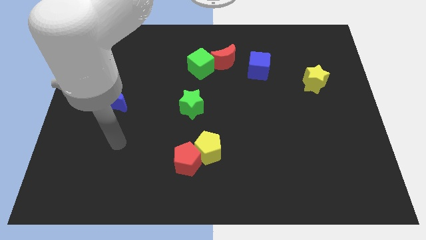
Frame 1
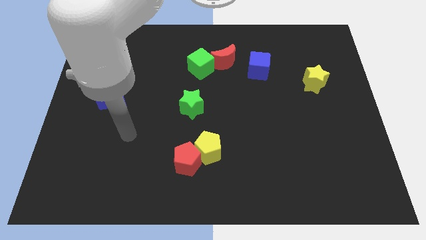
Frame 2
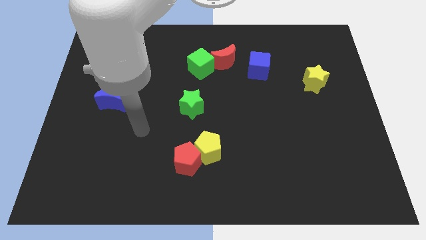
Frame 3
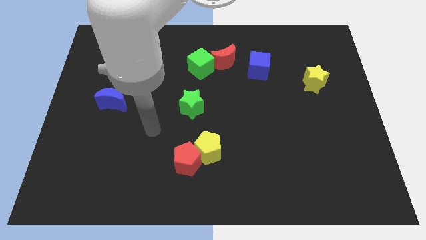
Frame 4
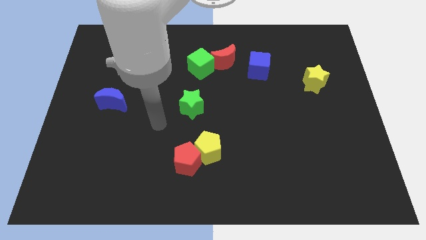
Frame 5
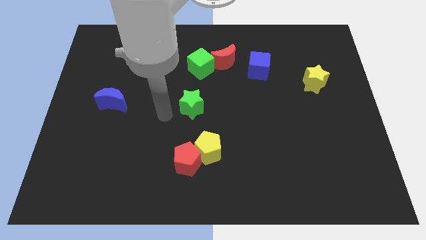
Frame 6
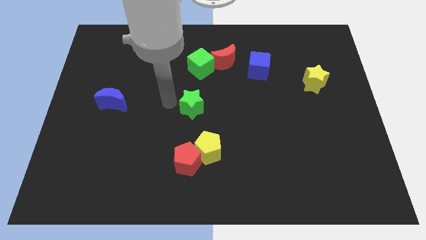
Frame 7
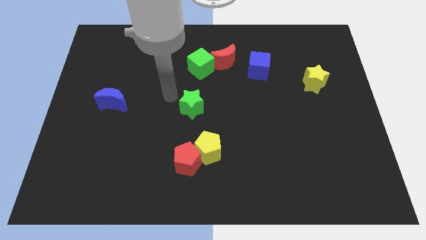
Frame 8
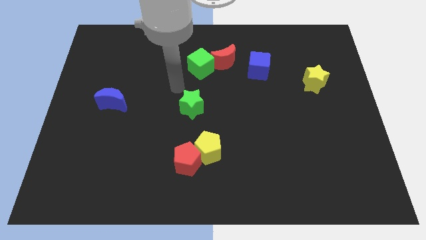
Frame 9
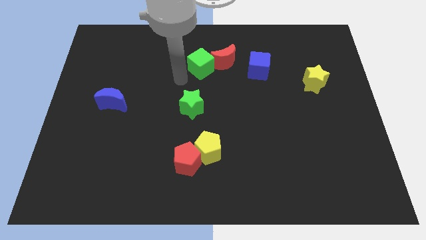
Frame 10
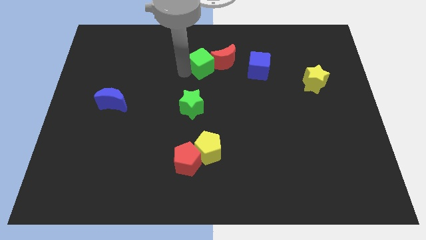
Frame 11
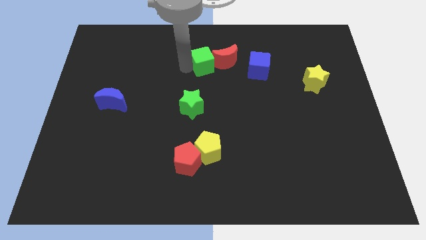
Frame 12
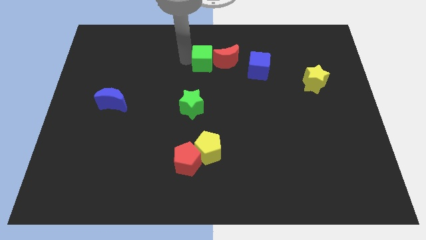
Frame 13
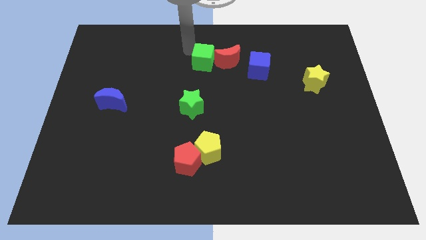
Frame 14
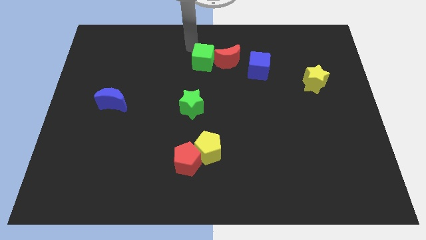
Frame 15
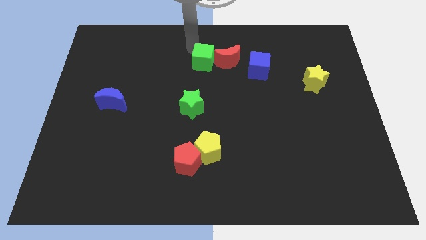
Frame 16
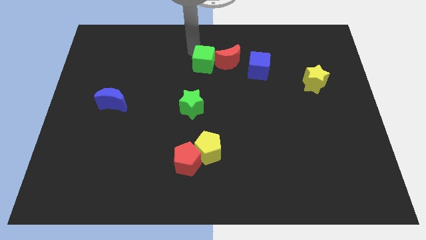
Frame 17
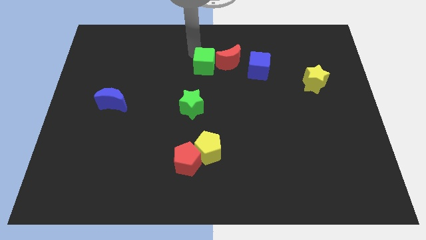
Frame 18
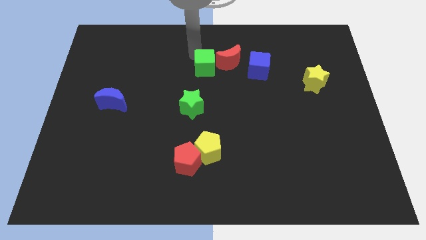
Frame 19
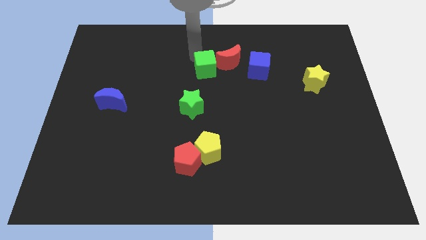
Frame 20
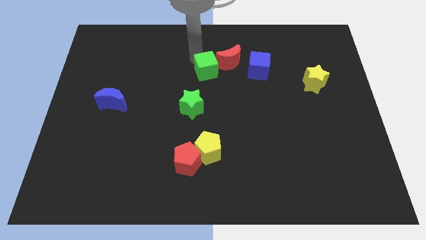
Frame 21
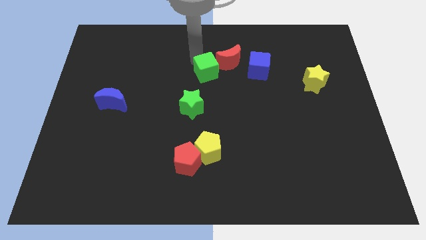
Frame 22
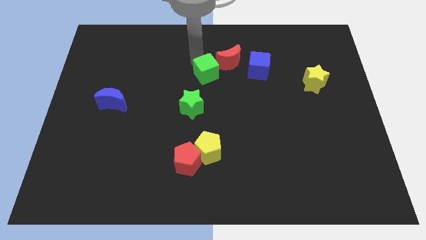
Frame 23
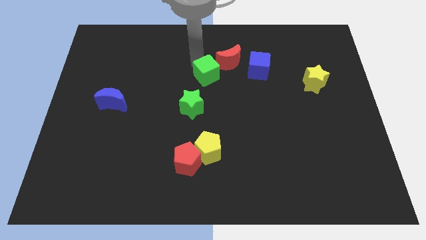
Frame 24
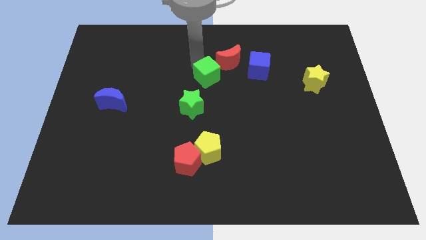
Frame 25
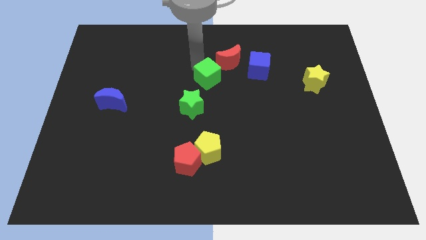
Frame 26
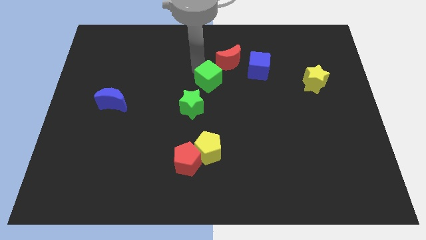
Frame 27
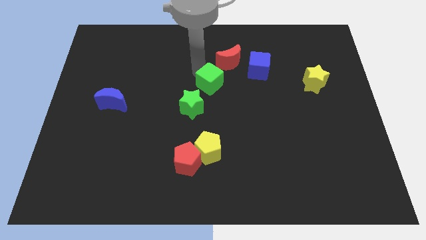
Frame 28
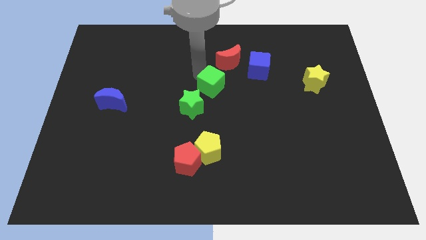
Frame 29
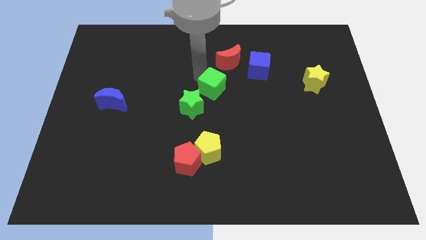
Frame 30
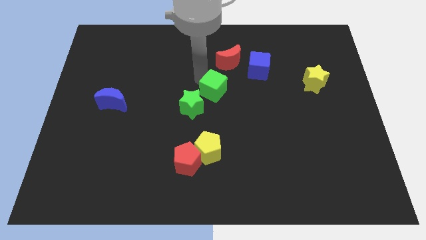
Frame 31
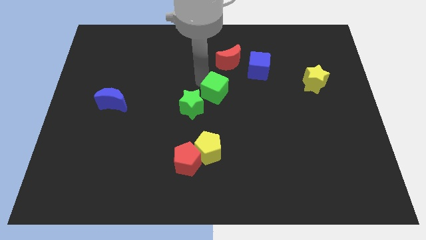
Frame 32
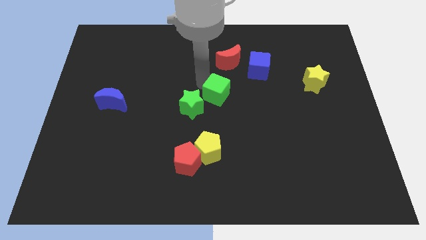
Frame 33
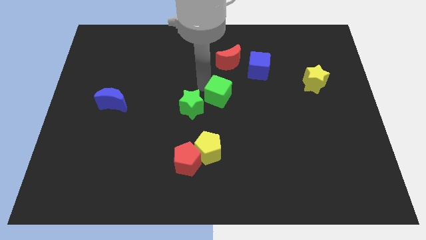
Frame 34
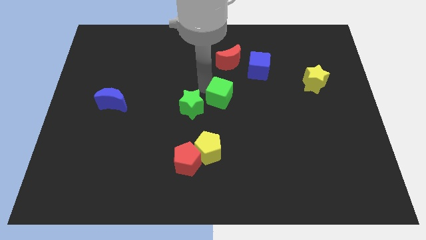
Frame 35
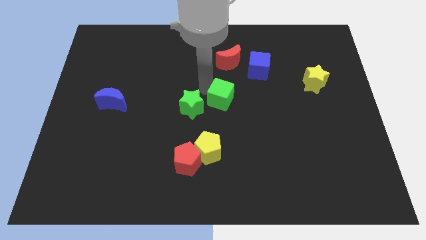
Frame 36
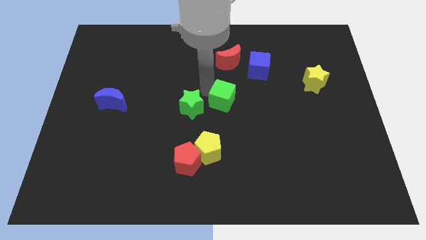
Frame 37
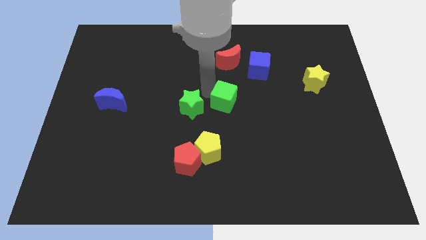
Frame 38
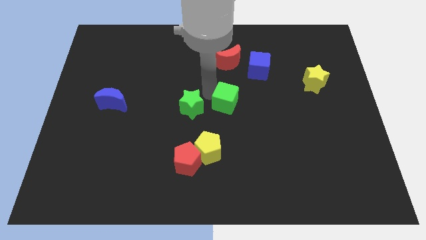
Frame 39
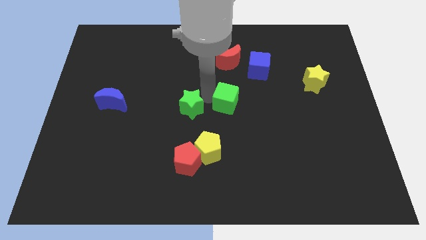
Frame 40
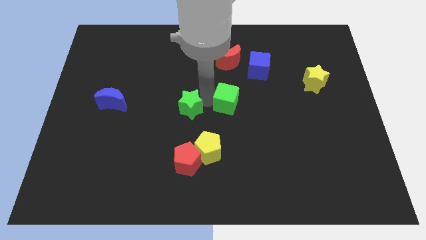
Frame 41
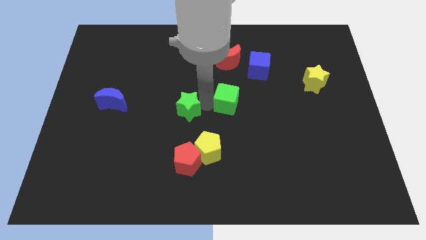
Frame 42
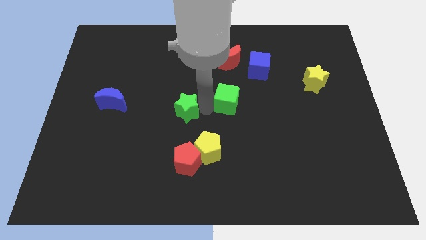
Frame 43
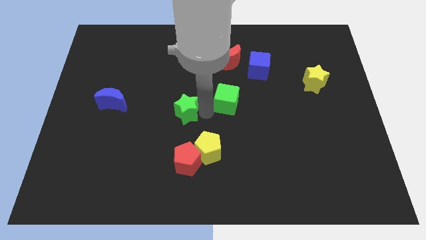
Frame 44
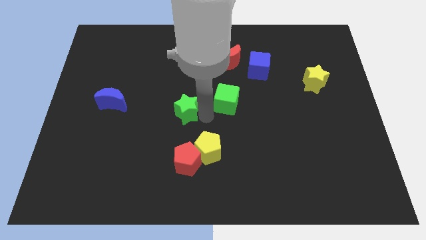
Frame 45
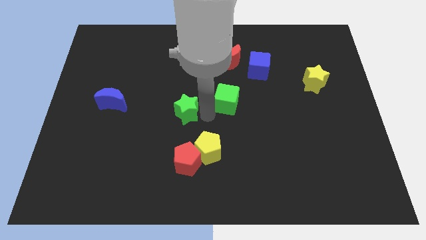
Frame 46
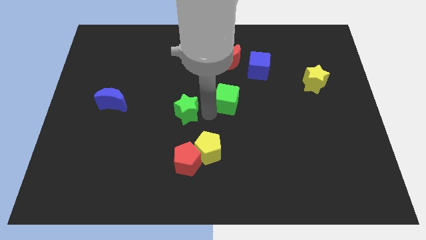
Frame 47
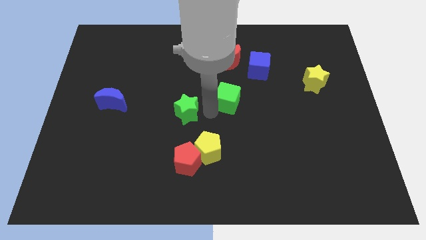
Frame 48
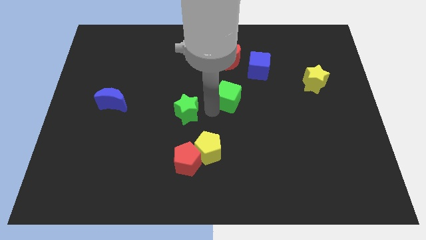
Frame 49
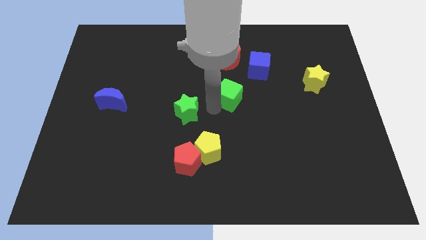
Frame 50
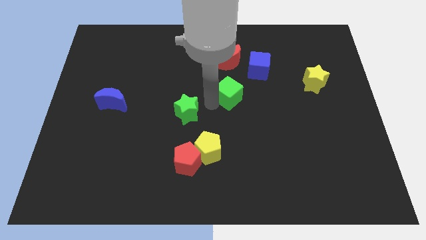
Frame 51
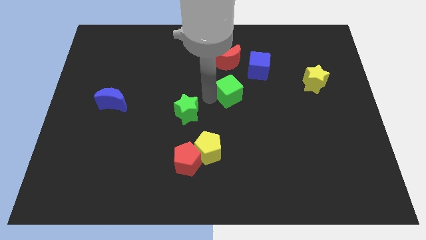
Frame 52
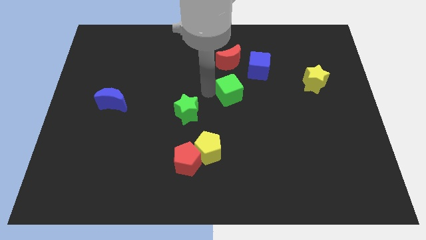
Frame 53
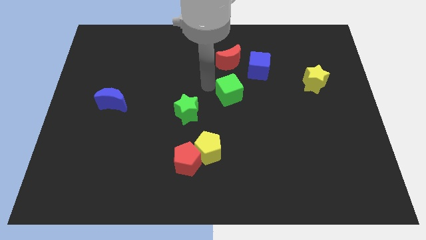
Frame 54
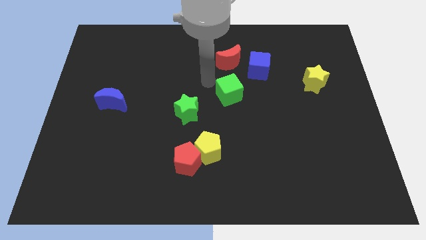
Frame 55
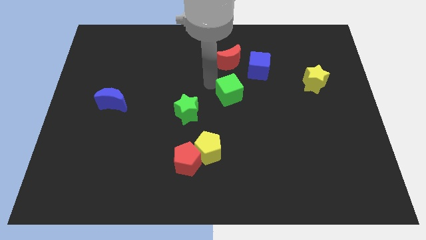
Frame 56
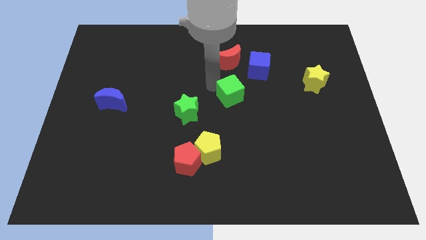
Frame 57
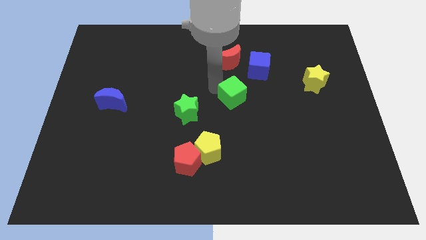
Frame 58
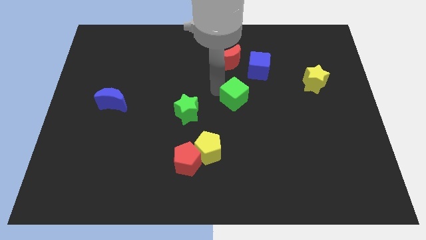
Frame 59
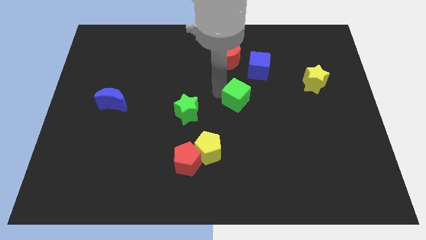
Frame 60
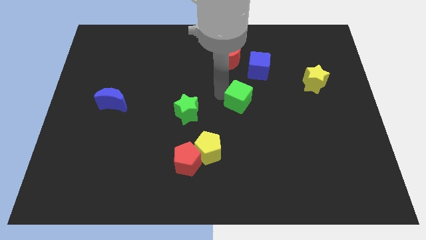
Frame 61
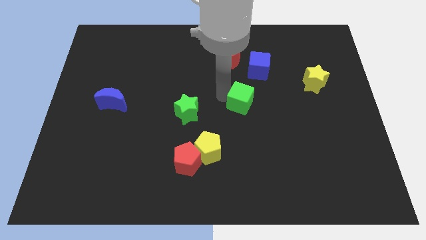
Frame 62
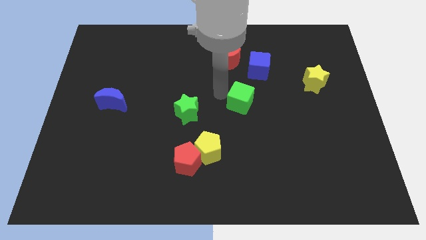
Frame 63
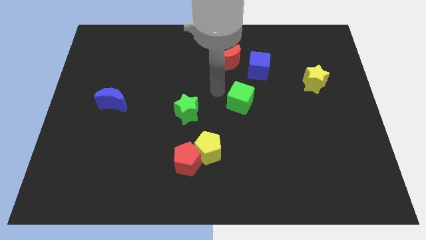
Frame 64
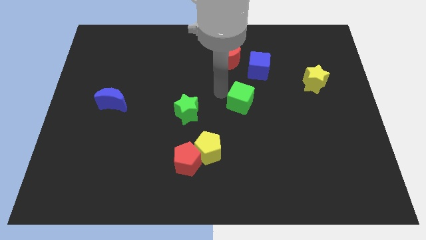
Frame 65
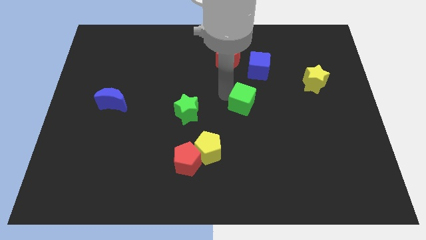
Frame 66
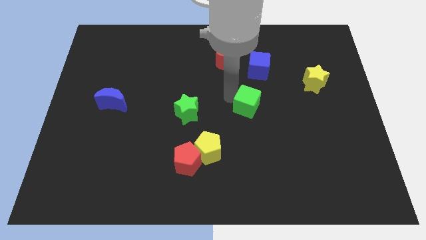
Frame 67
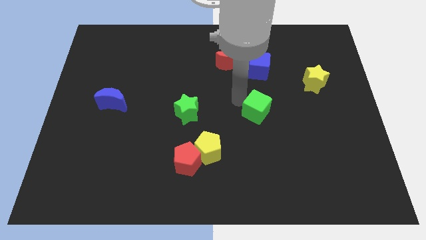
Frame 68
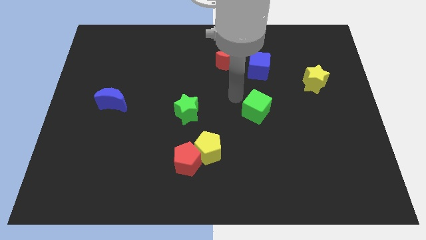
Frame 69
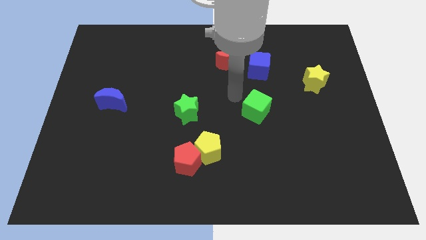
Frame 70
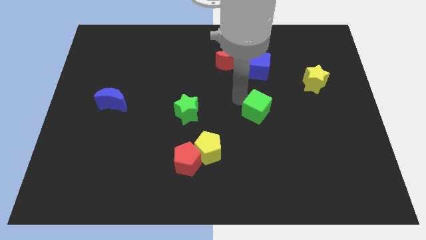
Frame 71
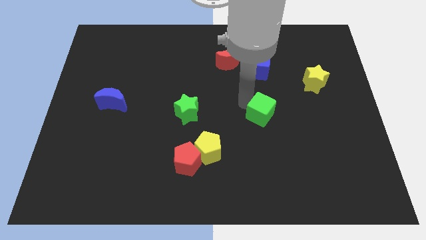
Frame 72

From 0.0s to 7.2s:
slide the green cube down and to the right

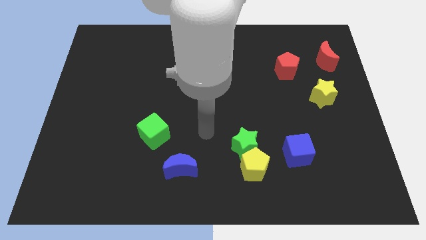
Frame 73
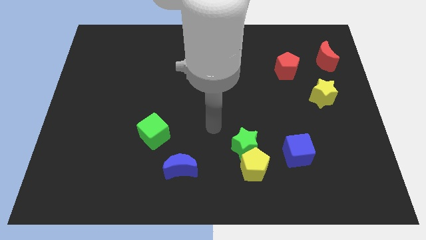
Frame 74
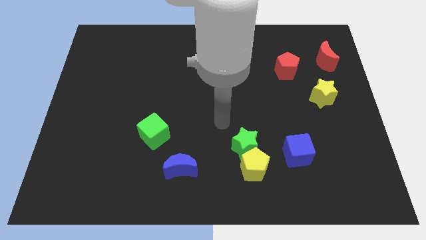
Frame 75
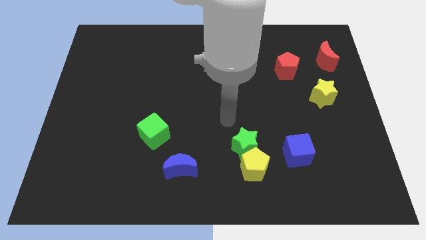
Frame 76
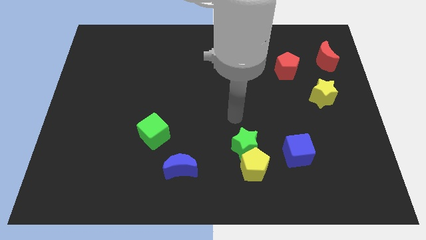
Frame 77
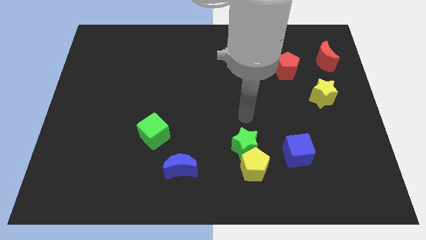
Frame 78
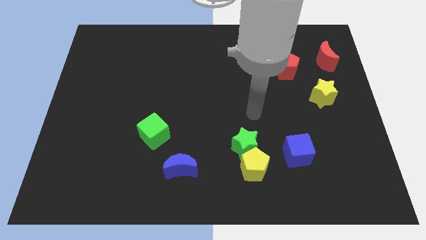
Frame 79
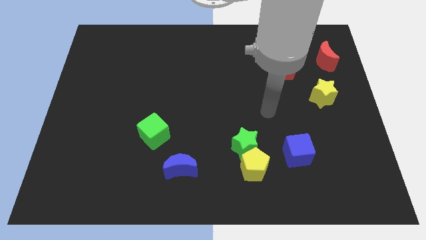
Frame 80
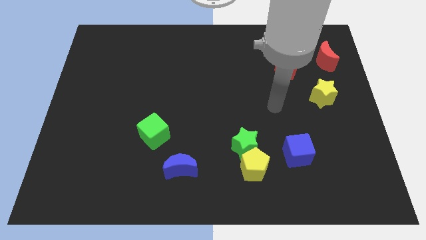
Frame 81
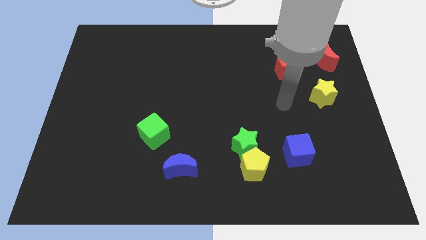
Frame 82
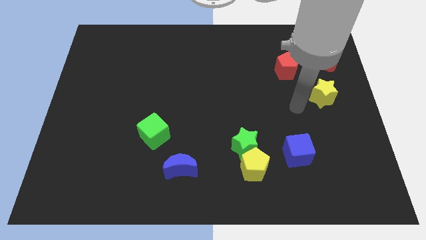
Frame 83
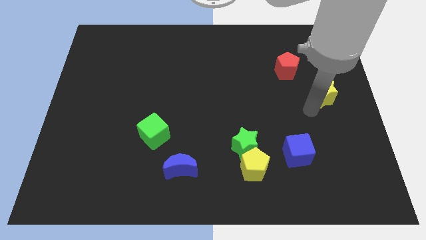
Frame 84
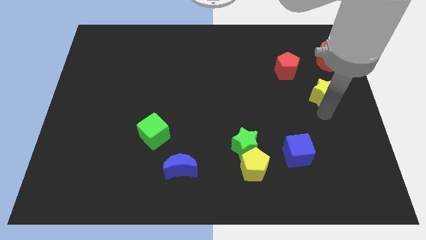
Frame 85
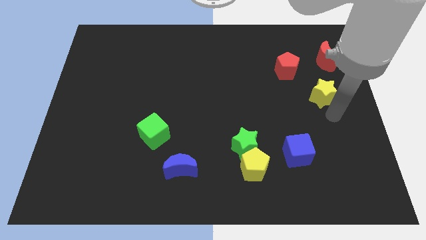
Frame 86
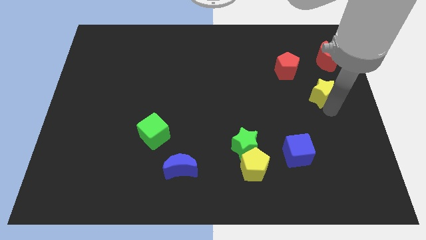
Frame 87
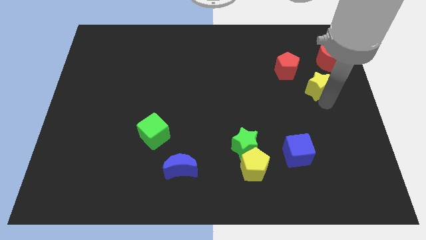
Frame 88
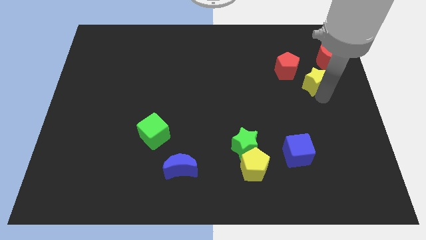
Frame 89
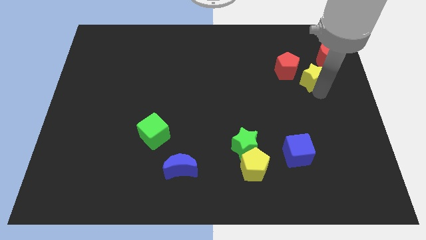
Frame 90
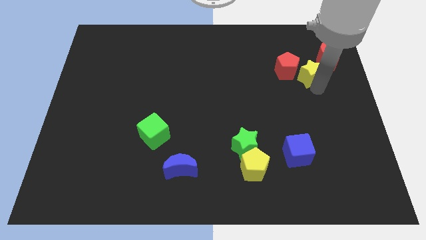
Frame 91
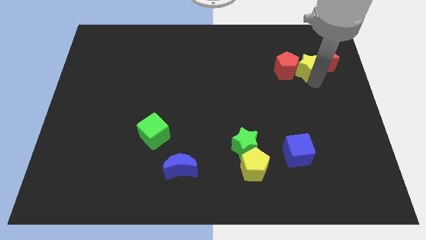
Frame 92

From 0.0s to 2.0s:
slightly move the yellow star up and then to the left
